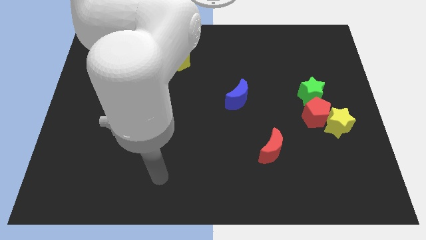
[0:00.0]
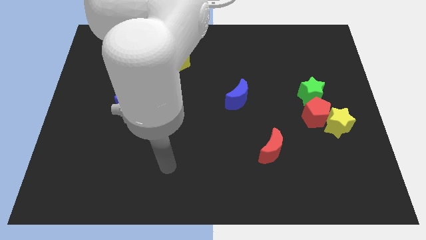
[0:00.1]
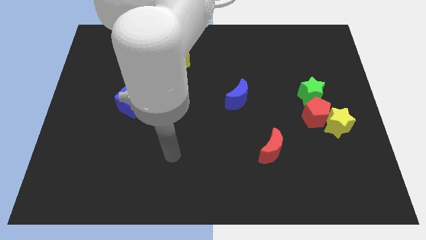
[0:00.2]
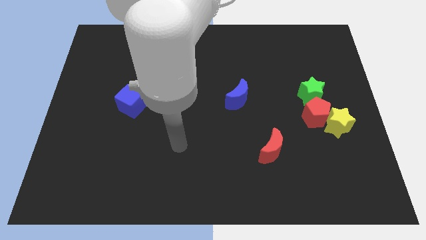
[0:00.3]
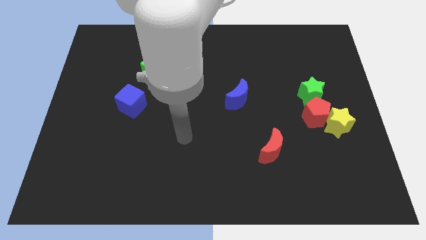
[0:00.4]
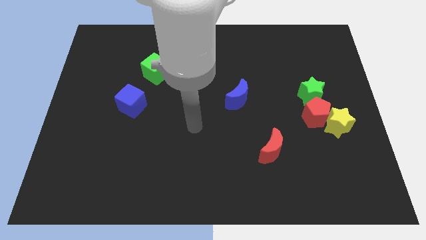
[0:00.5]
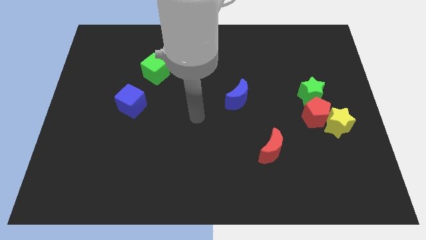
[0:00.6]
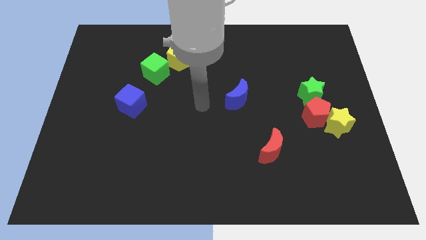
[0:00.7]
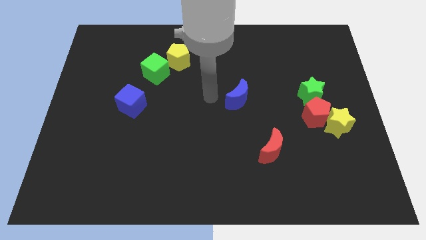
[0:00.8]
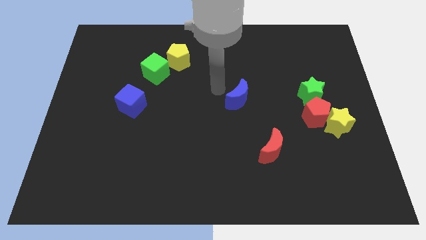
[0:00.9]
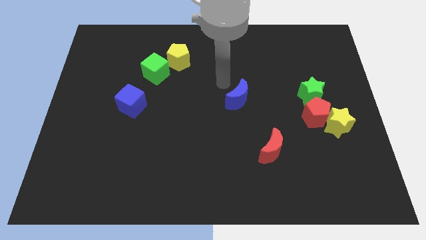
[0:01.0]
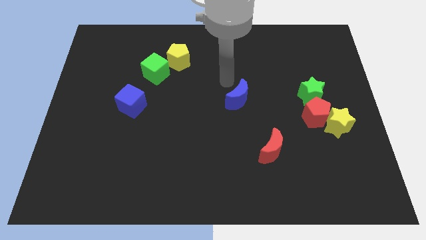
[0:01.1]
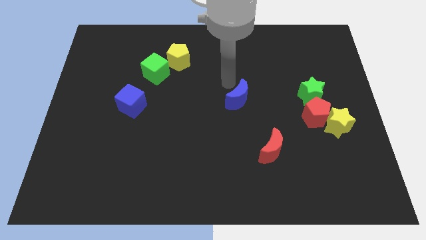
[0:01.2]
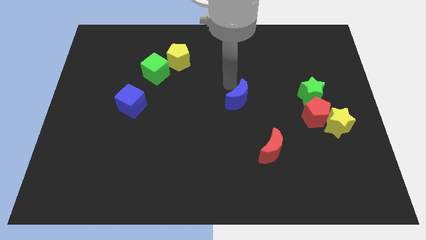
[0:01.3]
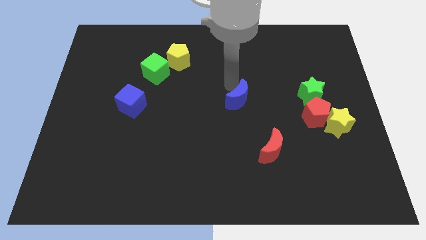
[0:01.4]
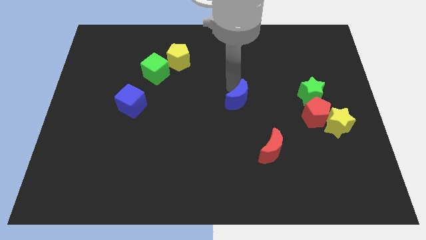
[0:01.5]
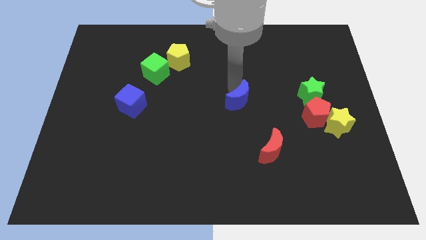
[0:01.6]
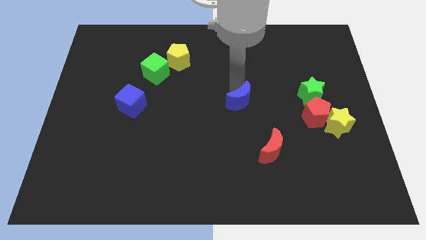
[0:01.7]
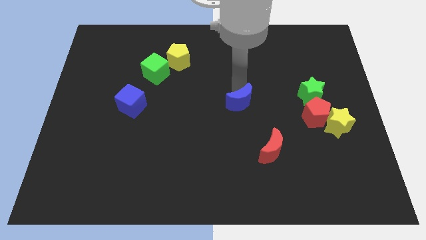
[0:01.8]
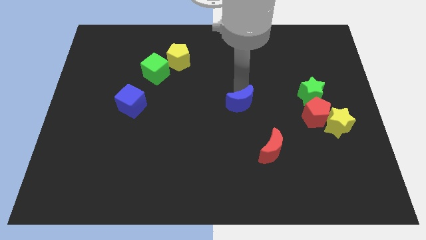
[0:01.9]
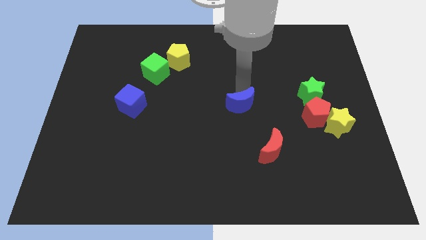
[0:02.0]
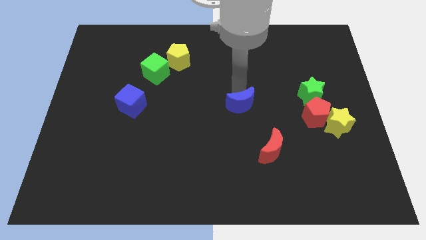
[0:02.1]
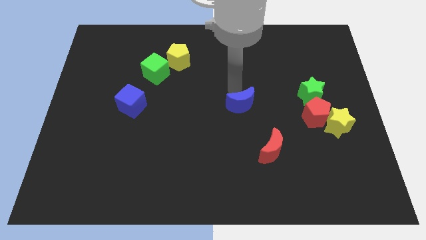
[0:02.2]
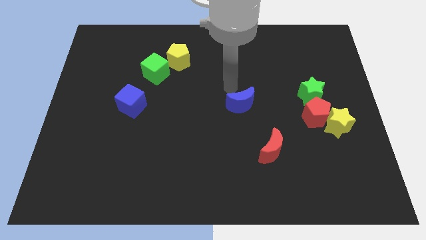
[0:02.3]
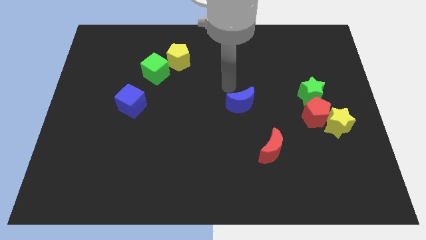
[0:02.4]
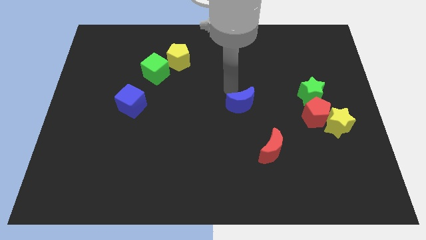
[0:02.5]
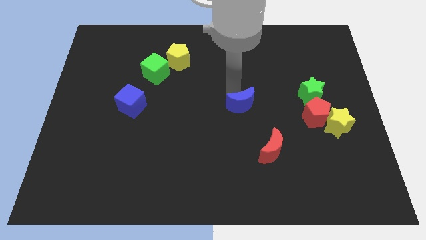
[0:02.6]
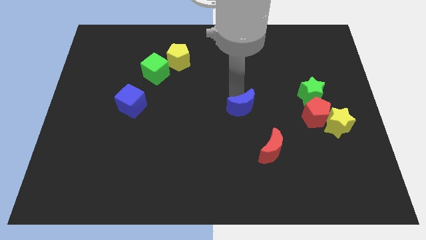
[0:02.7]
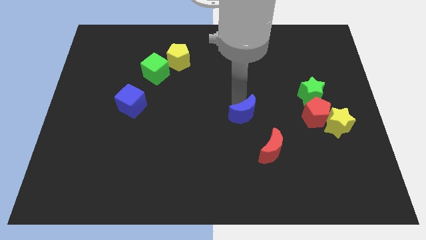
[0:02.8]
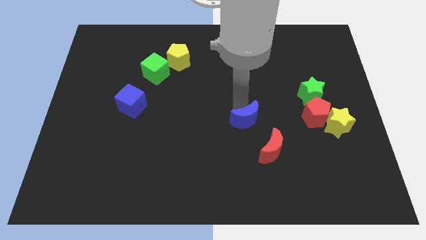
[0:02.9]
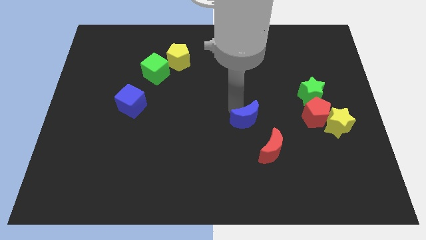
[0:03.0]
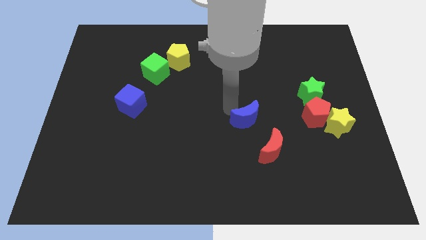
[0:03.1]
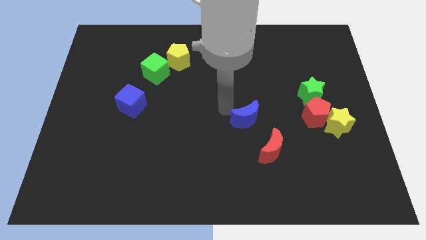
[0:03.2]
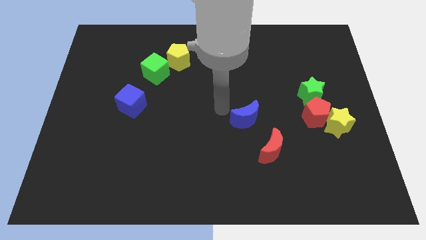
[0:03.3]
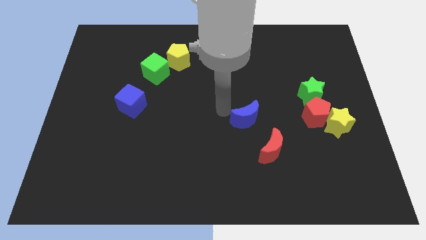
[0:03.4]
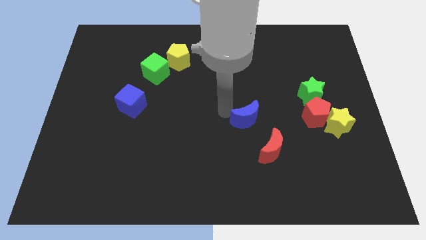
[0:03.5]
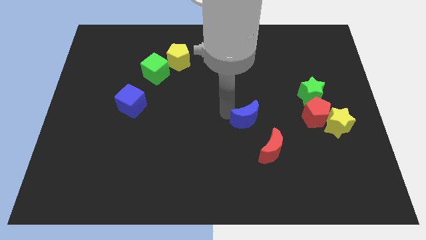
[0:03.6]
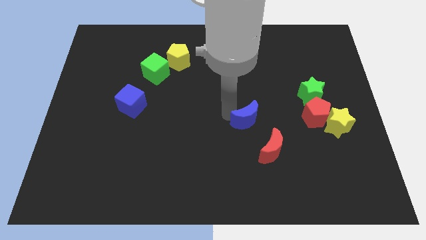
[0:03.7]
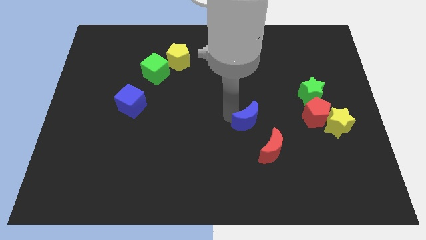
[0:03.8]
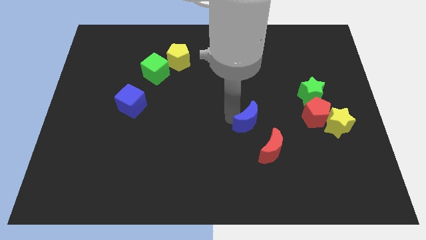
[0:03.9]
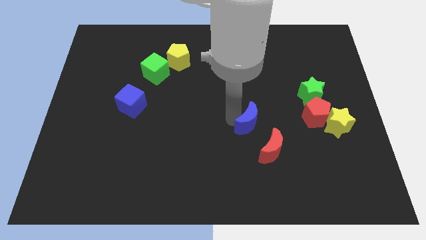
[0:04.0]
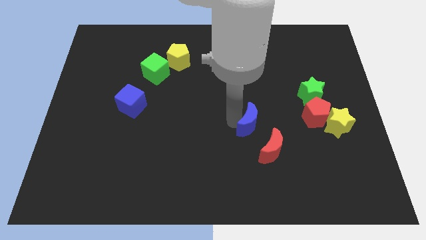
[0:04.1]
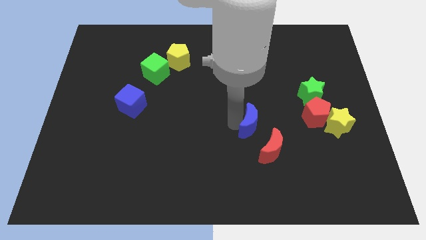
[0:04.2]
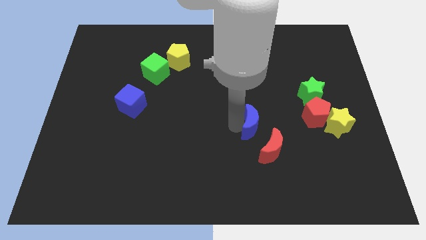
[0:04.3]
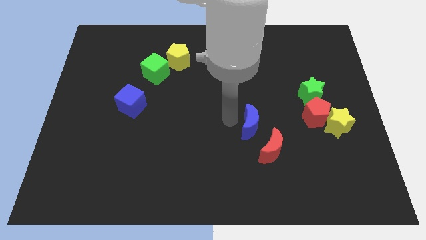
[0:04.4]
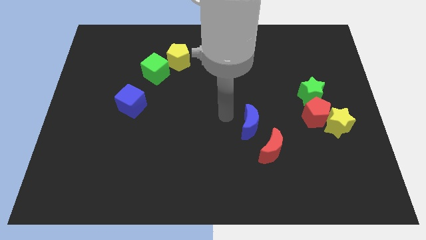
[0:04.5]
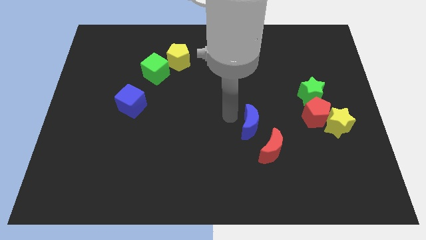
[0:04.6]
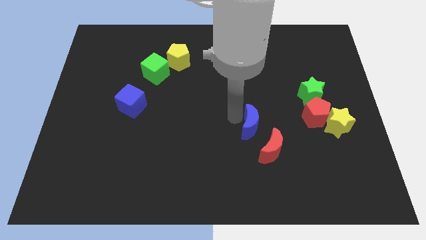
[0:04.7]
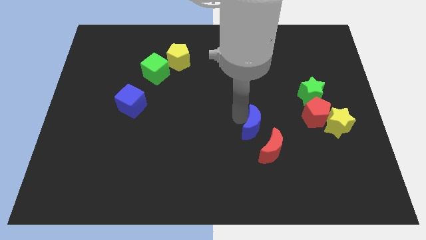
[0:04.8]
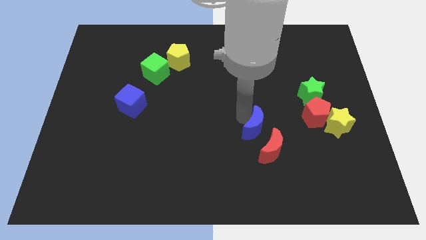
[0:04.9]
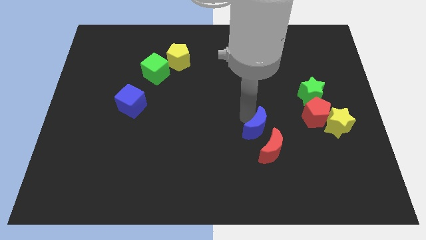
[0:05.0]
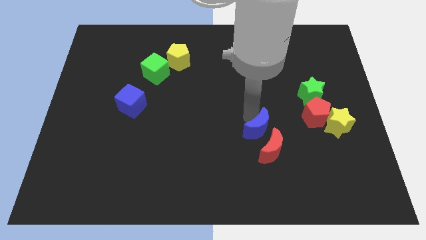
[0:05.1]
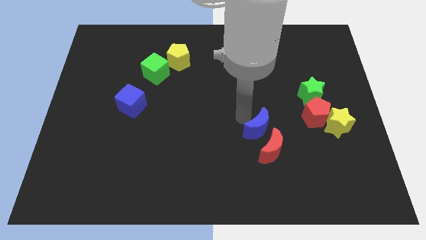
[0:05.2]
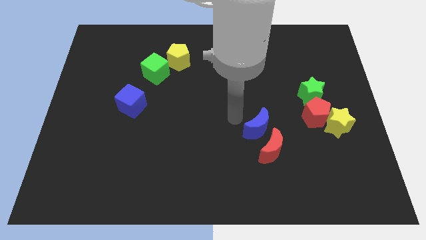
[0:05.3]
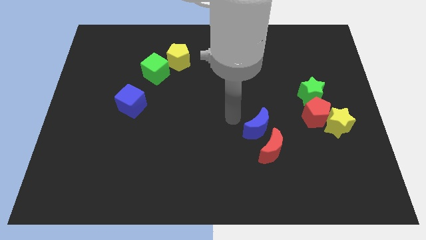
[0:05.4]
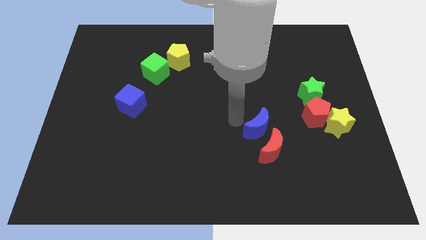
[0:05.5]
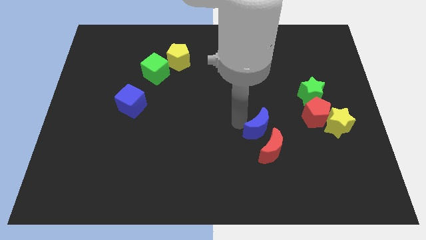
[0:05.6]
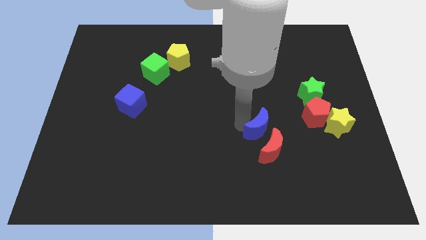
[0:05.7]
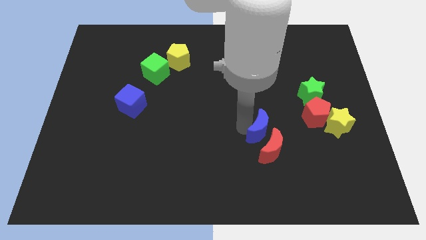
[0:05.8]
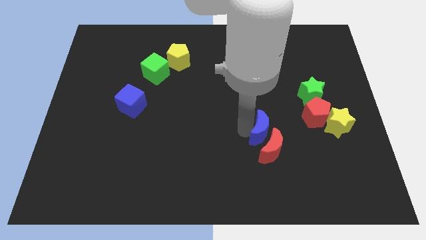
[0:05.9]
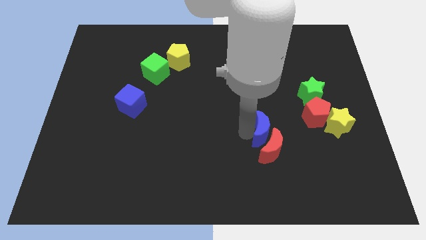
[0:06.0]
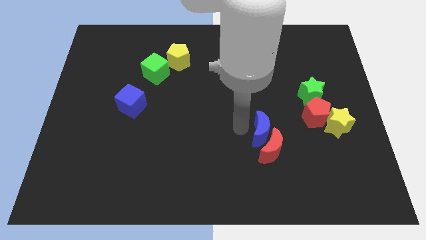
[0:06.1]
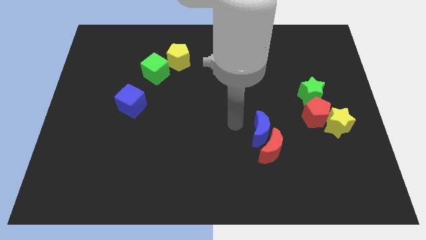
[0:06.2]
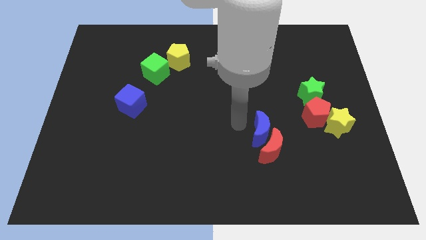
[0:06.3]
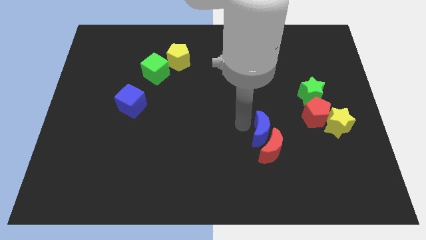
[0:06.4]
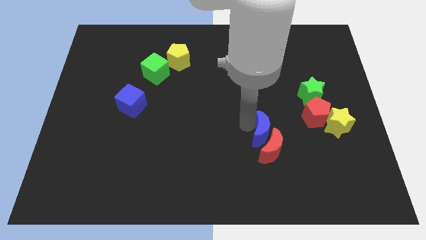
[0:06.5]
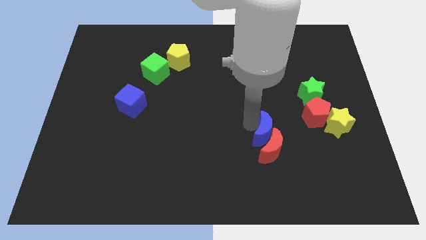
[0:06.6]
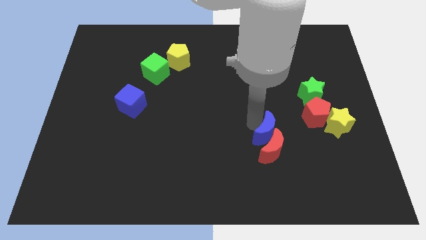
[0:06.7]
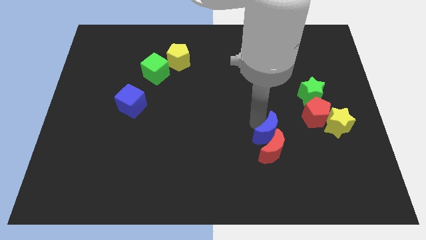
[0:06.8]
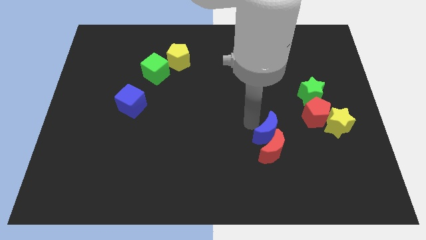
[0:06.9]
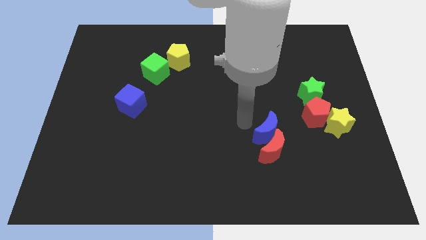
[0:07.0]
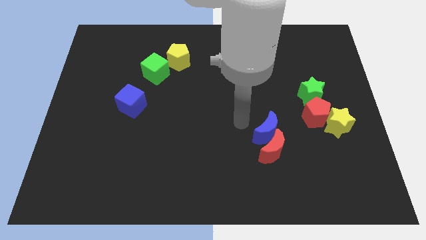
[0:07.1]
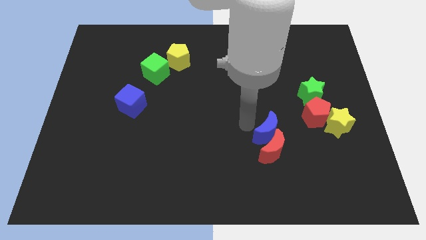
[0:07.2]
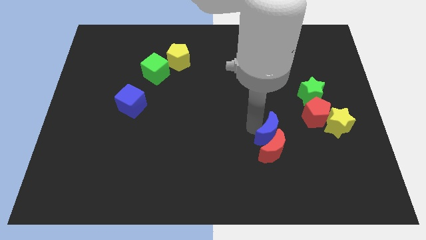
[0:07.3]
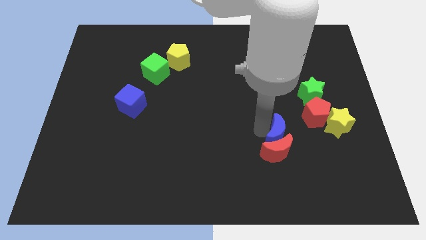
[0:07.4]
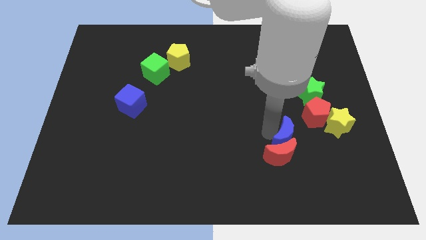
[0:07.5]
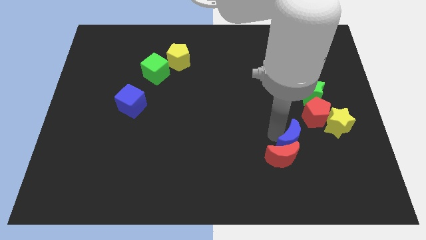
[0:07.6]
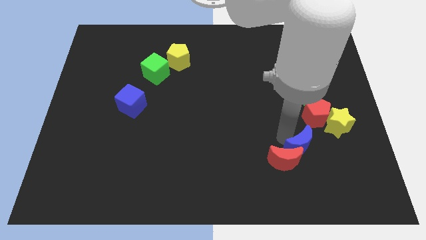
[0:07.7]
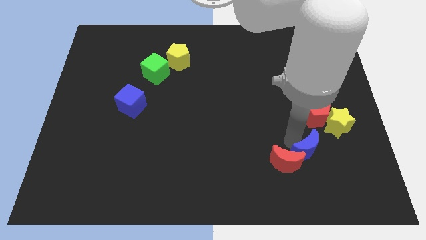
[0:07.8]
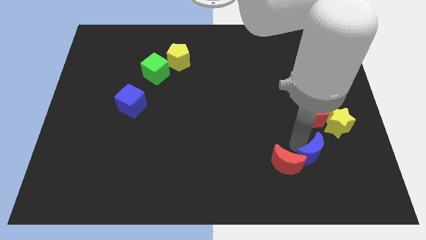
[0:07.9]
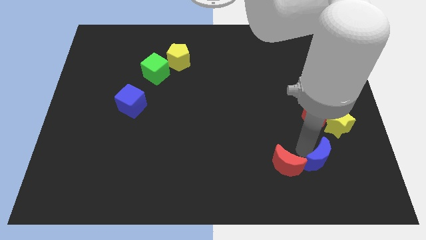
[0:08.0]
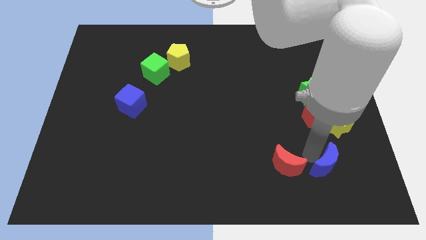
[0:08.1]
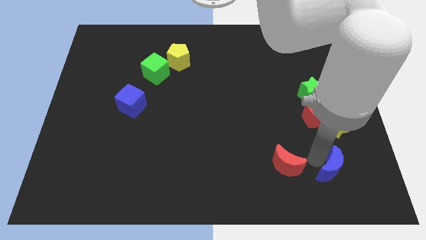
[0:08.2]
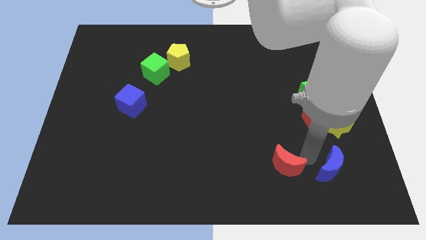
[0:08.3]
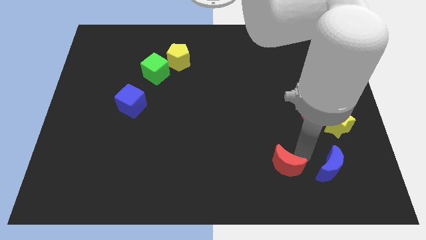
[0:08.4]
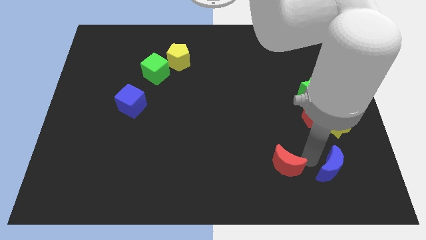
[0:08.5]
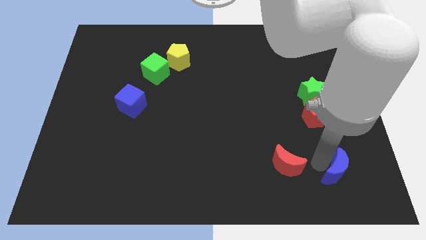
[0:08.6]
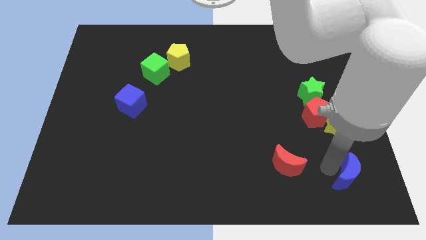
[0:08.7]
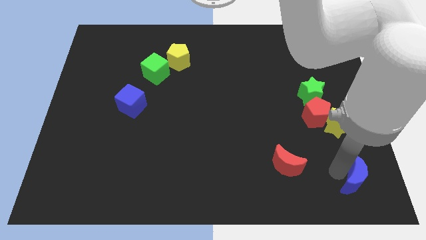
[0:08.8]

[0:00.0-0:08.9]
put the blue moon to the bottom right corner
